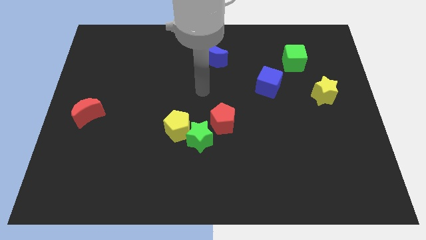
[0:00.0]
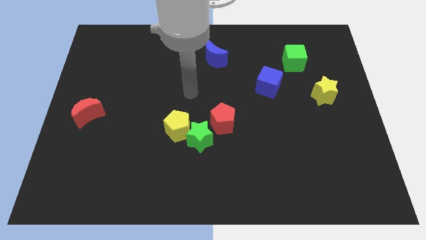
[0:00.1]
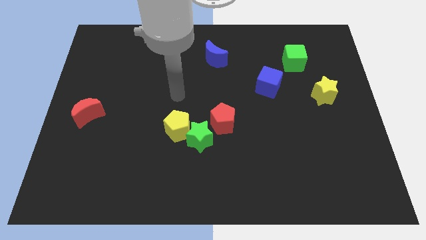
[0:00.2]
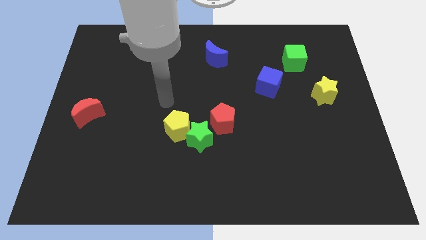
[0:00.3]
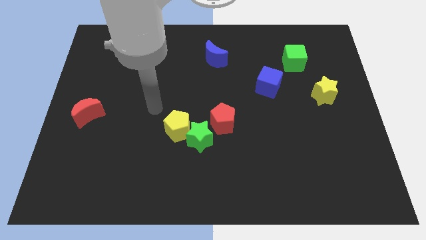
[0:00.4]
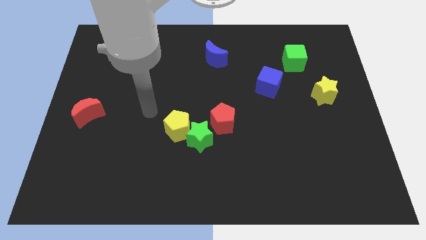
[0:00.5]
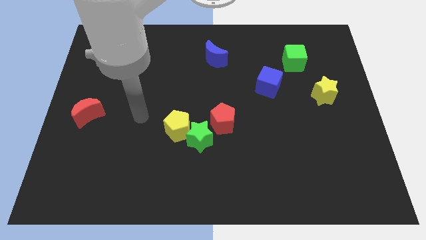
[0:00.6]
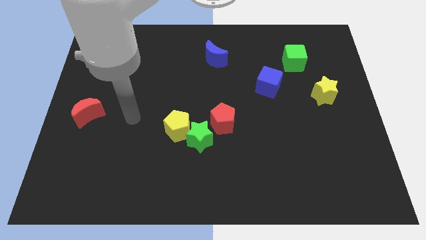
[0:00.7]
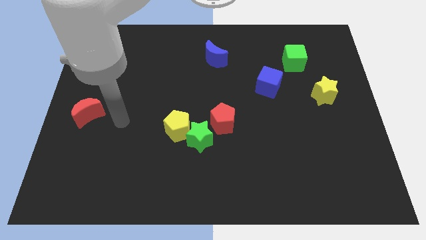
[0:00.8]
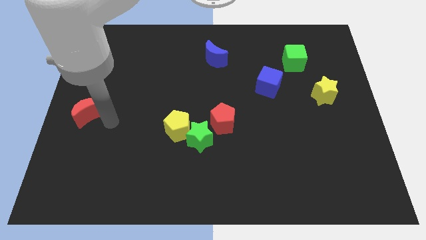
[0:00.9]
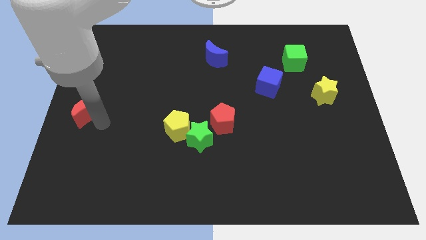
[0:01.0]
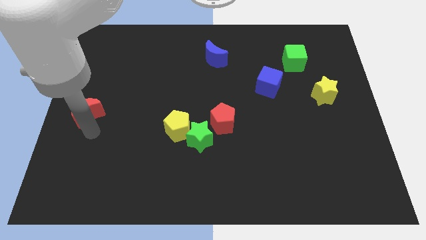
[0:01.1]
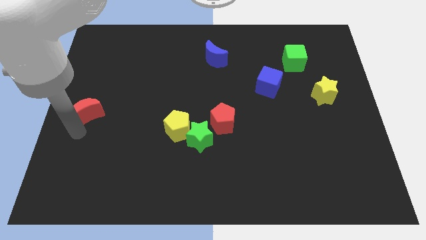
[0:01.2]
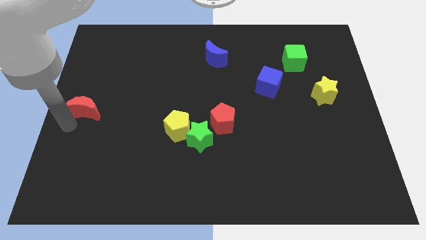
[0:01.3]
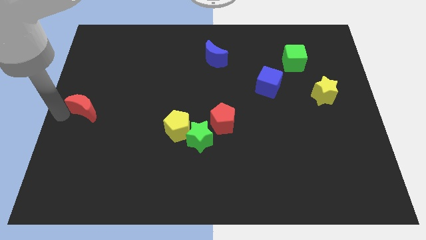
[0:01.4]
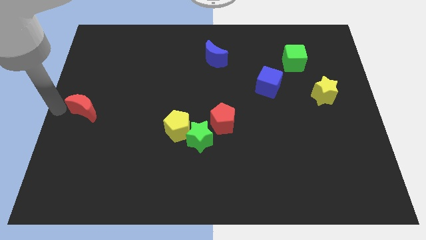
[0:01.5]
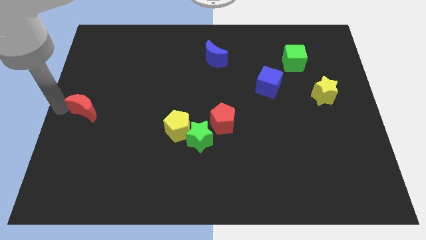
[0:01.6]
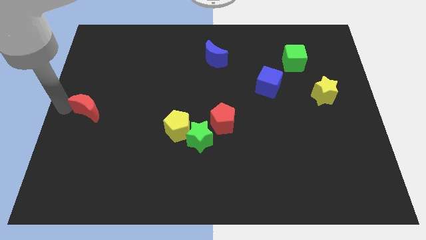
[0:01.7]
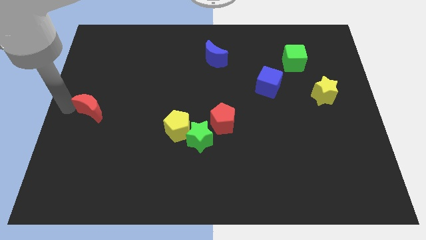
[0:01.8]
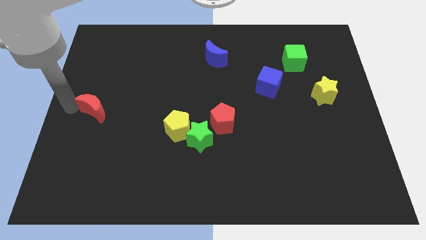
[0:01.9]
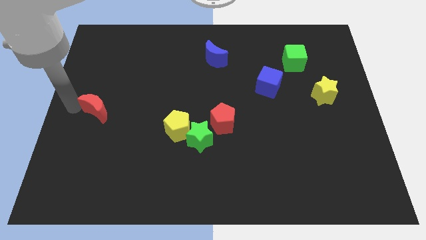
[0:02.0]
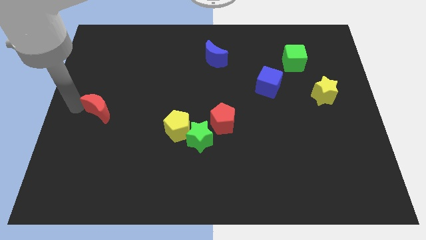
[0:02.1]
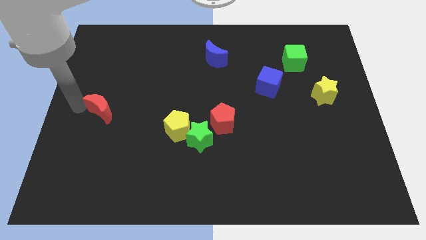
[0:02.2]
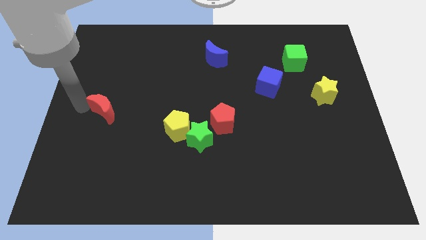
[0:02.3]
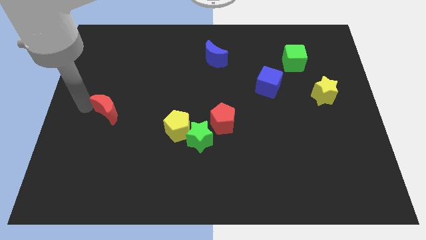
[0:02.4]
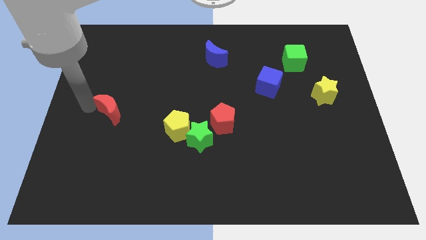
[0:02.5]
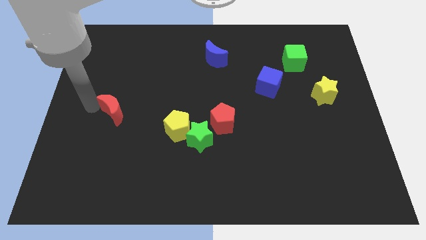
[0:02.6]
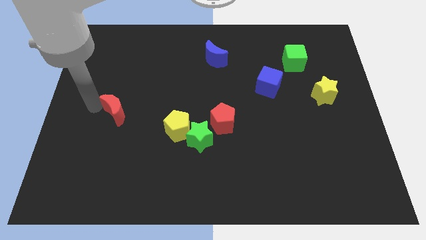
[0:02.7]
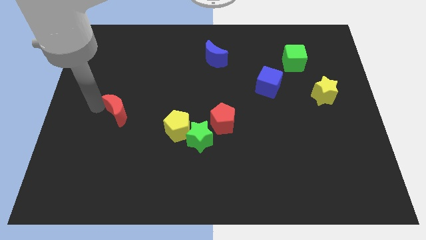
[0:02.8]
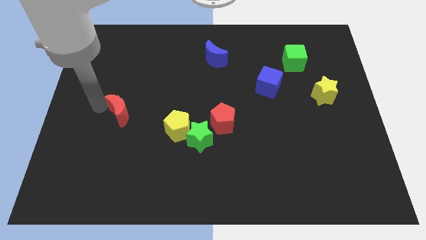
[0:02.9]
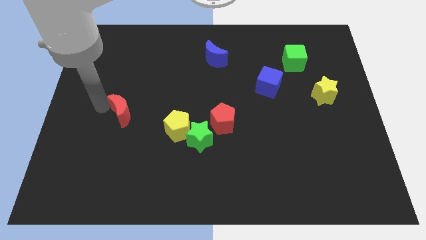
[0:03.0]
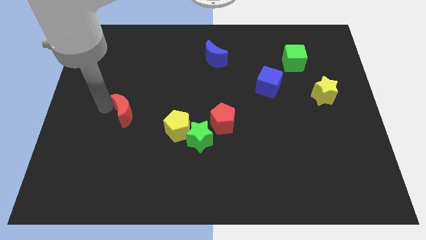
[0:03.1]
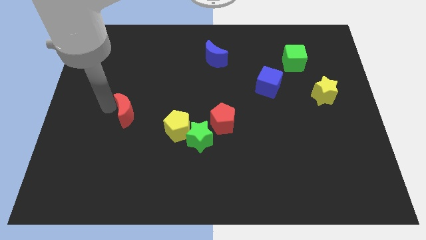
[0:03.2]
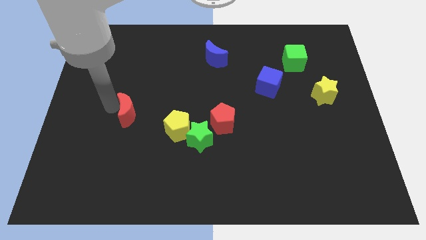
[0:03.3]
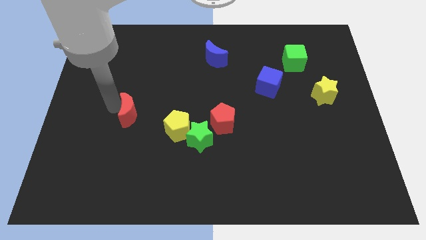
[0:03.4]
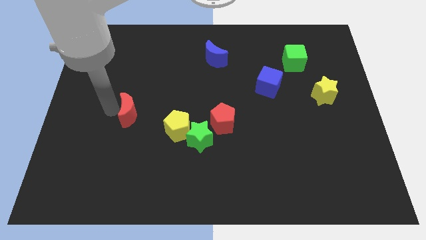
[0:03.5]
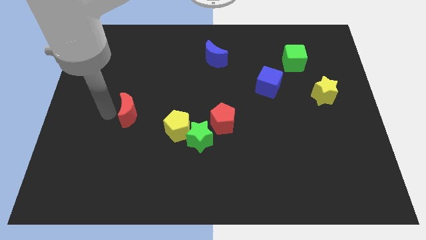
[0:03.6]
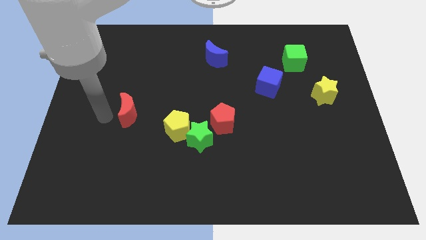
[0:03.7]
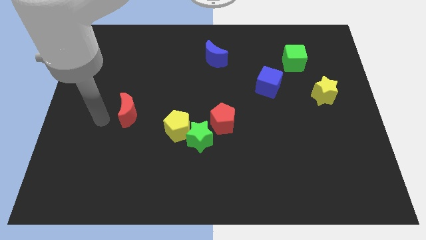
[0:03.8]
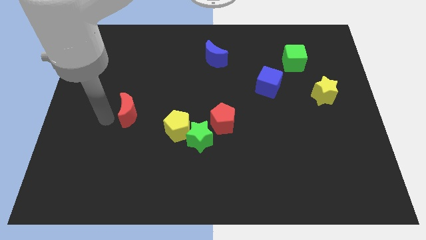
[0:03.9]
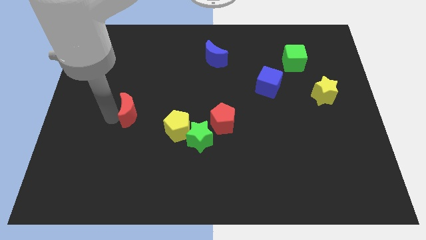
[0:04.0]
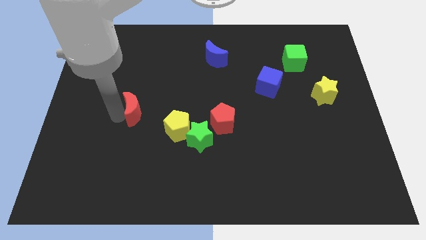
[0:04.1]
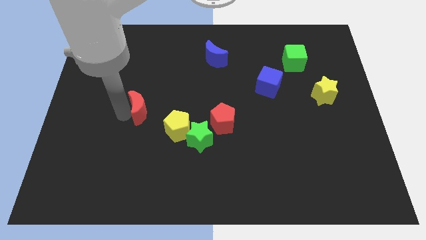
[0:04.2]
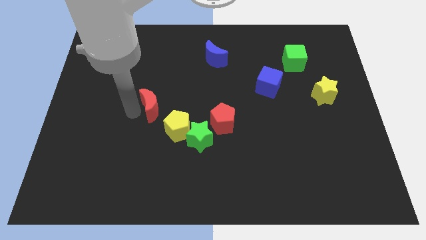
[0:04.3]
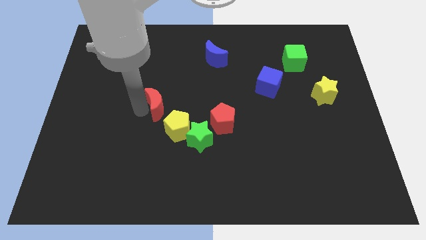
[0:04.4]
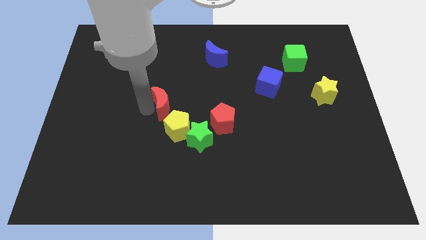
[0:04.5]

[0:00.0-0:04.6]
push the red moon to the center of the board

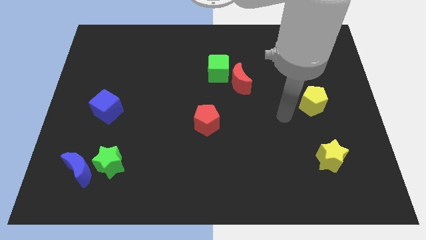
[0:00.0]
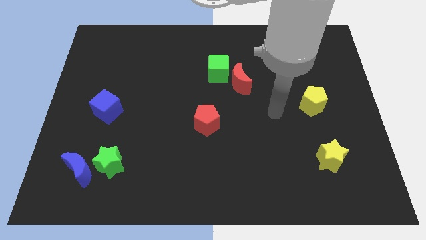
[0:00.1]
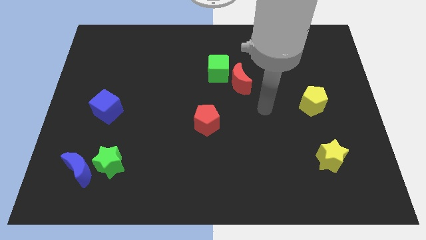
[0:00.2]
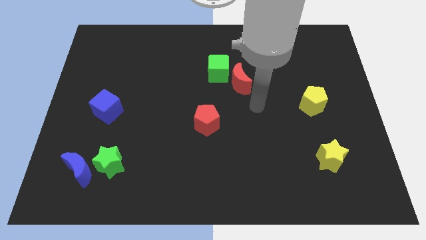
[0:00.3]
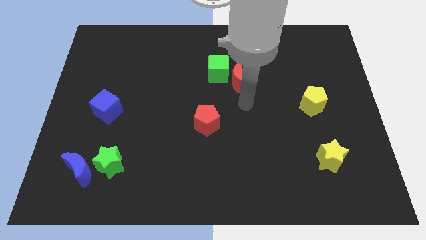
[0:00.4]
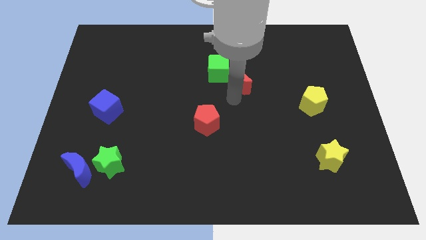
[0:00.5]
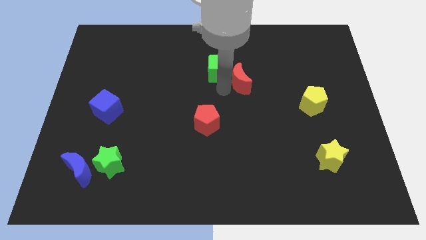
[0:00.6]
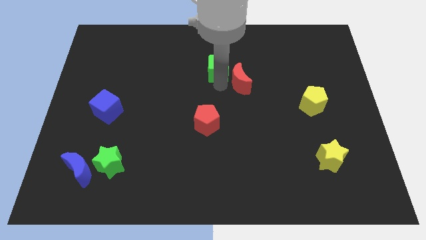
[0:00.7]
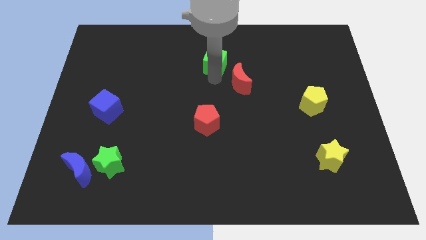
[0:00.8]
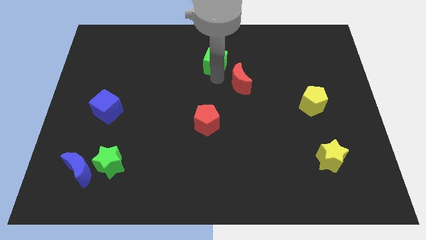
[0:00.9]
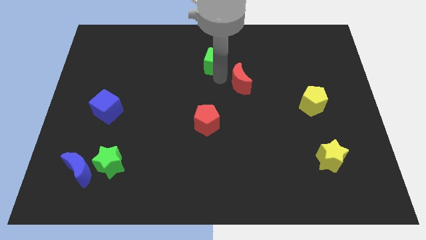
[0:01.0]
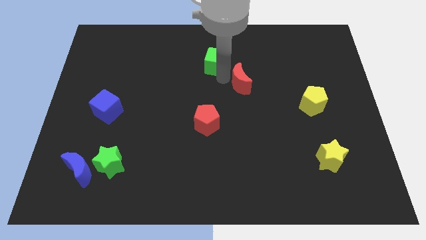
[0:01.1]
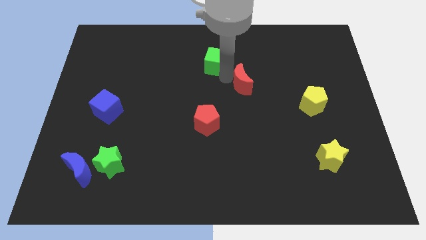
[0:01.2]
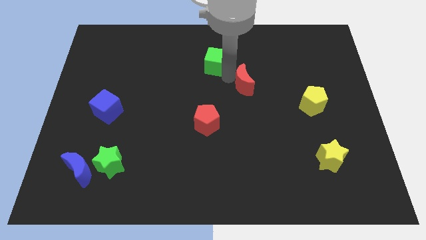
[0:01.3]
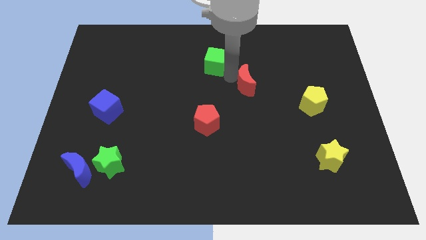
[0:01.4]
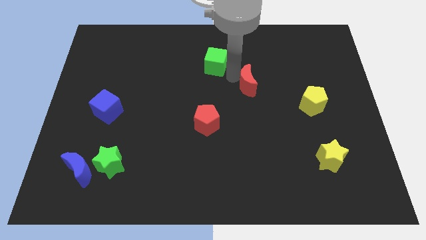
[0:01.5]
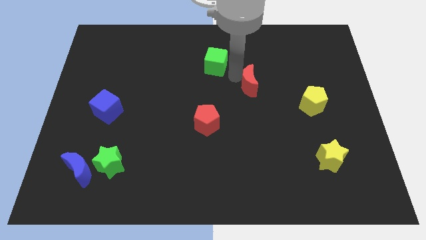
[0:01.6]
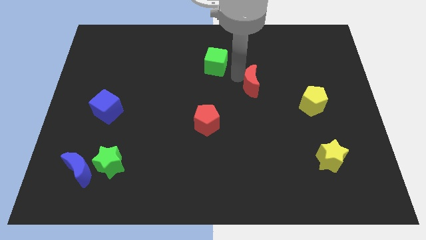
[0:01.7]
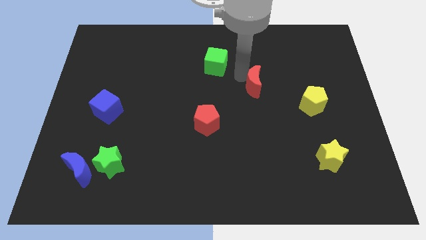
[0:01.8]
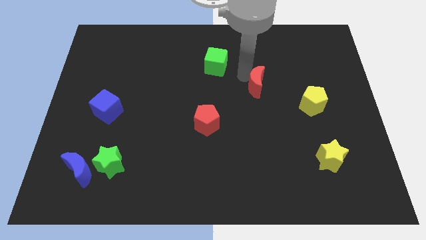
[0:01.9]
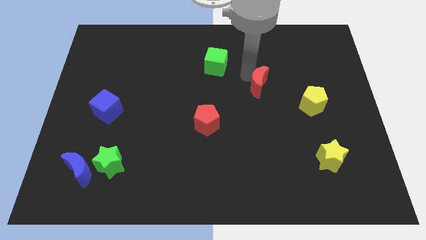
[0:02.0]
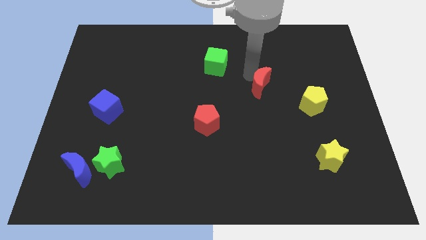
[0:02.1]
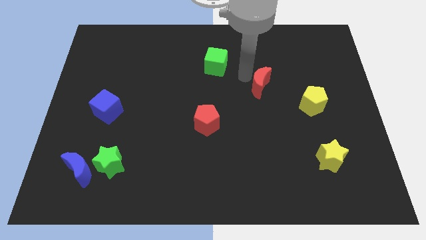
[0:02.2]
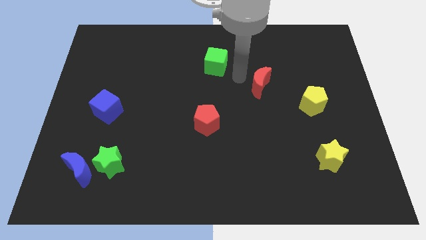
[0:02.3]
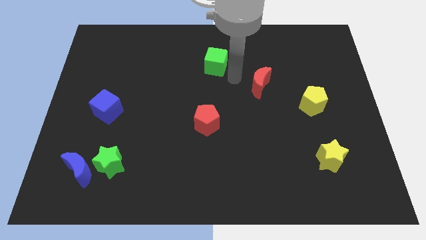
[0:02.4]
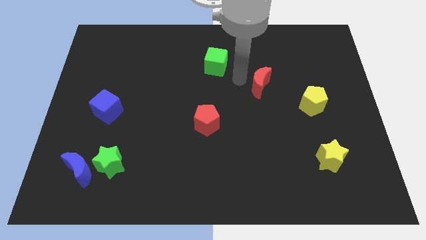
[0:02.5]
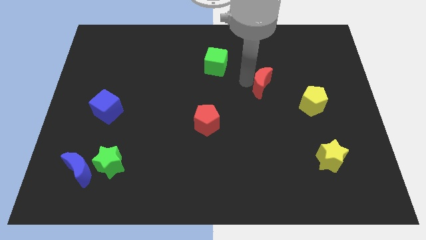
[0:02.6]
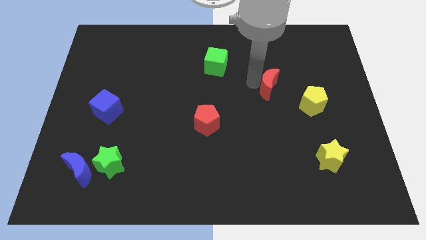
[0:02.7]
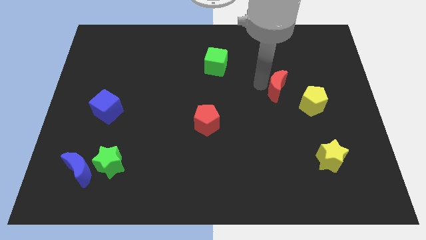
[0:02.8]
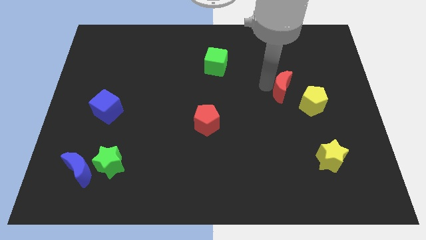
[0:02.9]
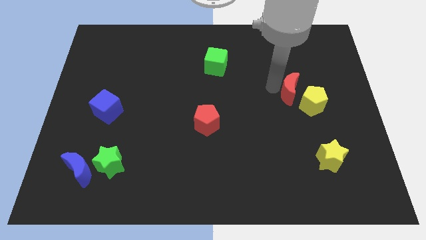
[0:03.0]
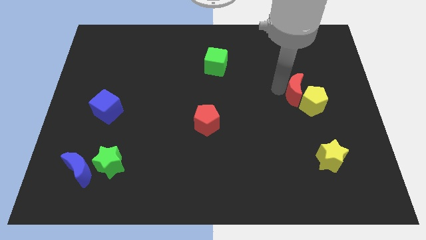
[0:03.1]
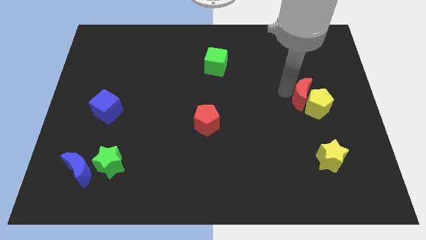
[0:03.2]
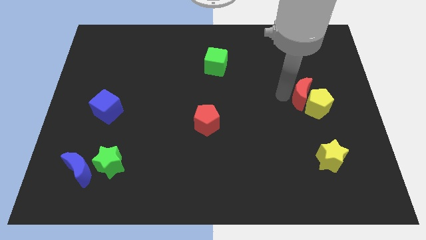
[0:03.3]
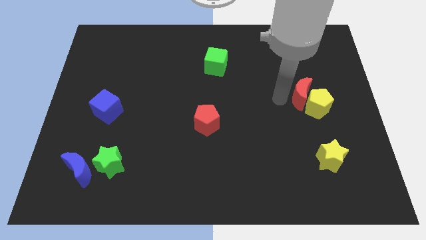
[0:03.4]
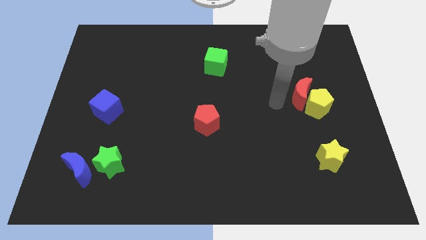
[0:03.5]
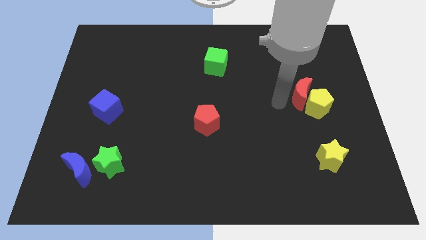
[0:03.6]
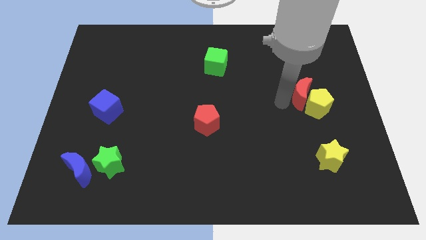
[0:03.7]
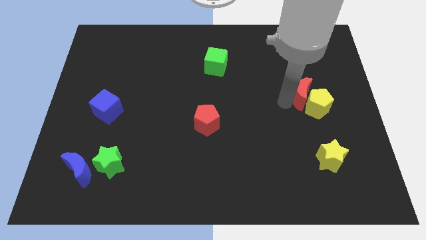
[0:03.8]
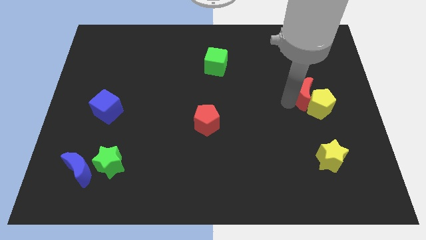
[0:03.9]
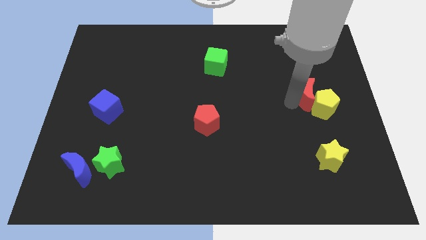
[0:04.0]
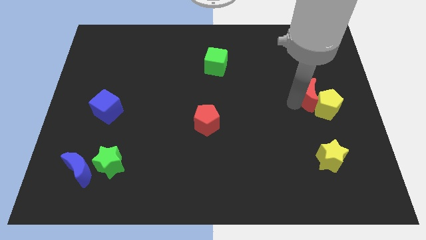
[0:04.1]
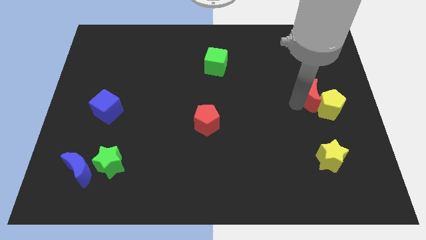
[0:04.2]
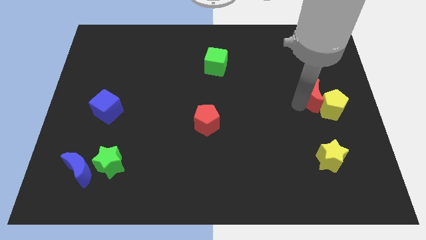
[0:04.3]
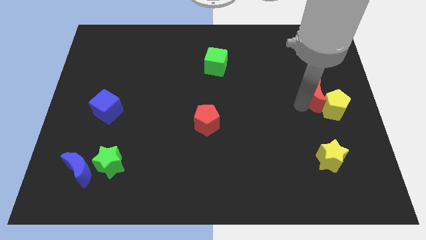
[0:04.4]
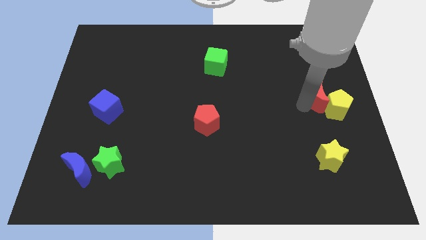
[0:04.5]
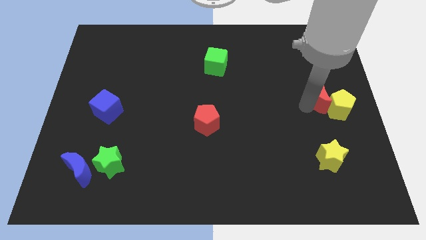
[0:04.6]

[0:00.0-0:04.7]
move the red moon to the right side
